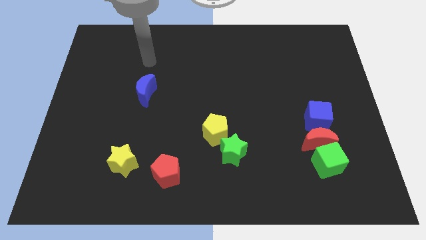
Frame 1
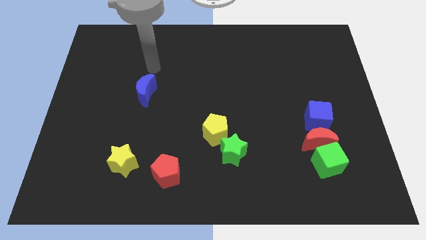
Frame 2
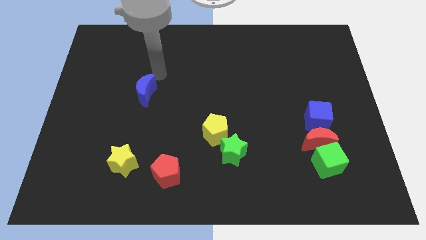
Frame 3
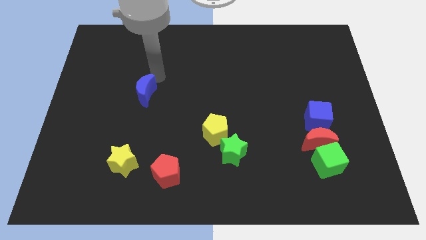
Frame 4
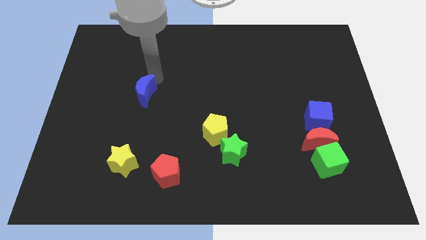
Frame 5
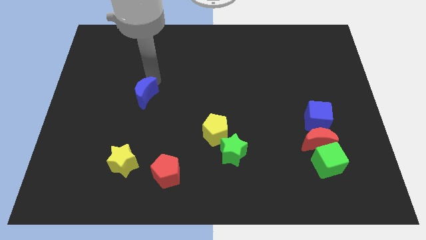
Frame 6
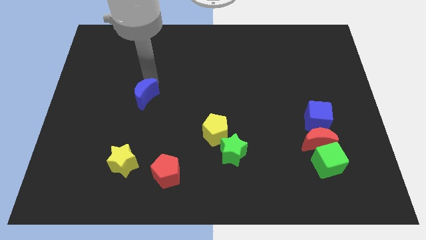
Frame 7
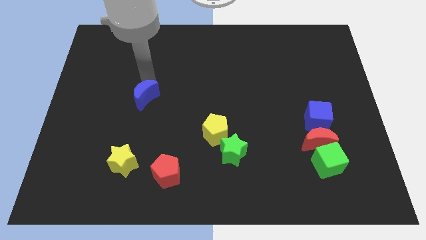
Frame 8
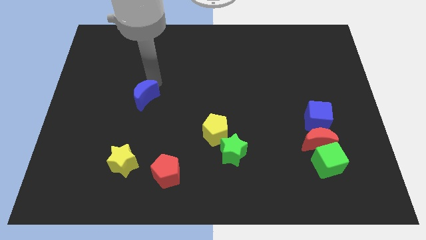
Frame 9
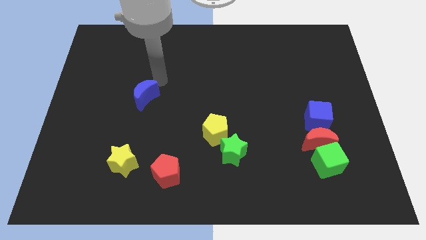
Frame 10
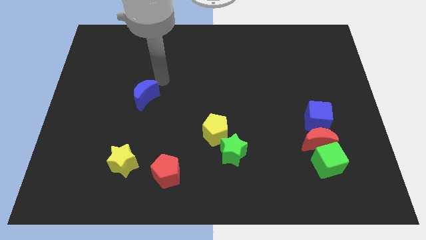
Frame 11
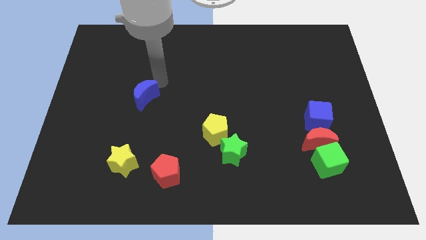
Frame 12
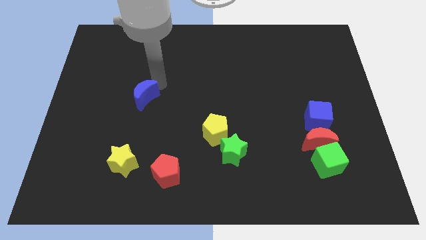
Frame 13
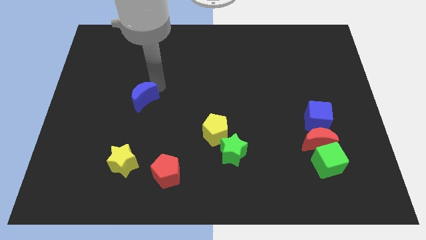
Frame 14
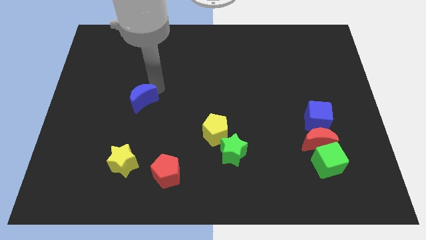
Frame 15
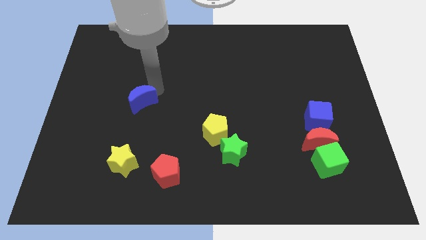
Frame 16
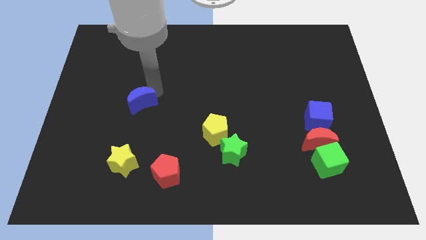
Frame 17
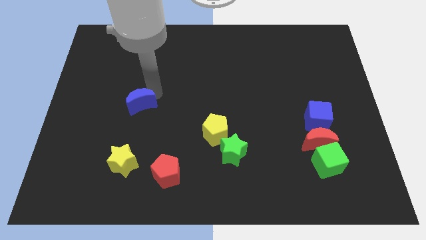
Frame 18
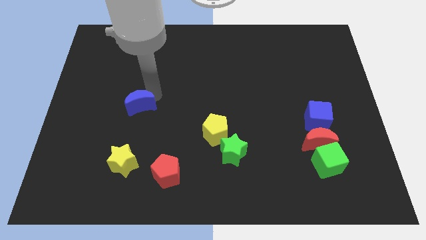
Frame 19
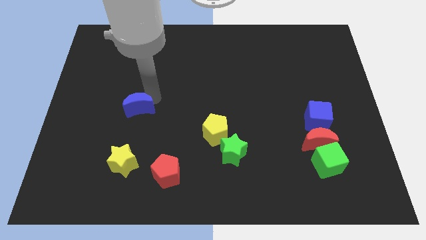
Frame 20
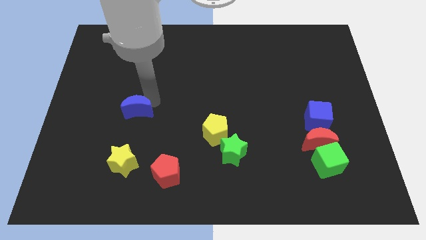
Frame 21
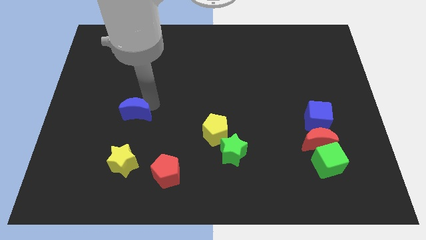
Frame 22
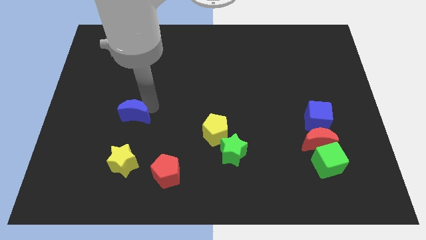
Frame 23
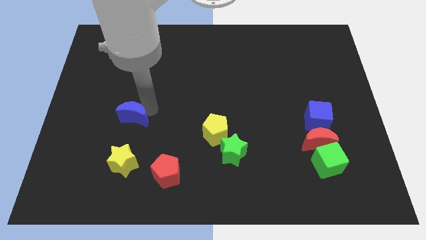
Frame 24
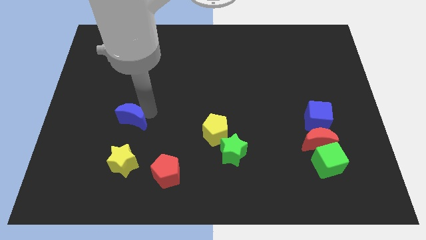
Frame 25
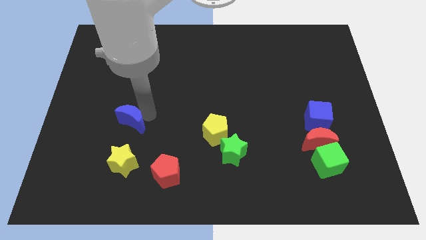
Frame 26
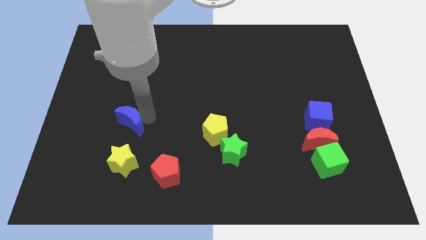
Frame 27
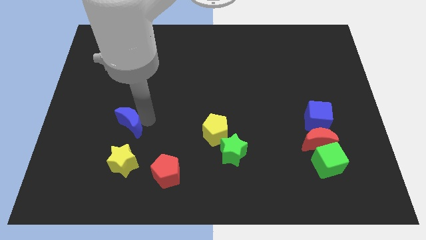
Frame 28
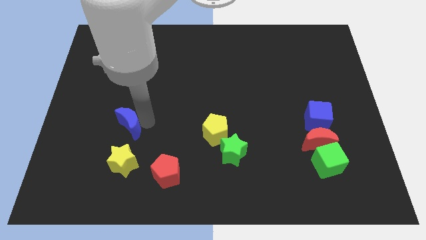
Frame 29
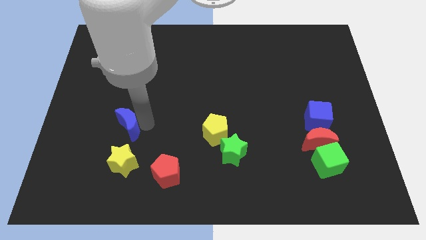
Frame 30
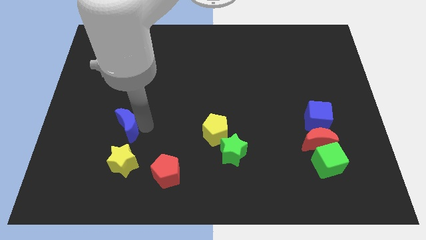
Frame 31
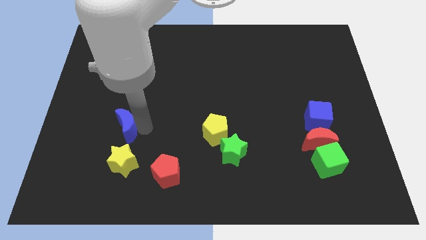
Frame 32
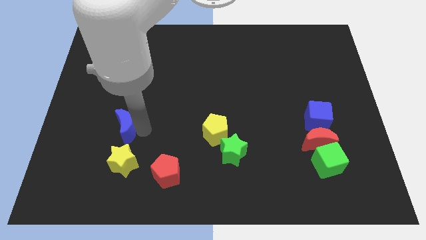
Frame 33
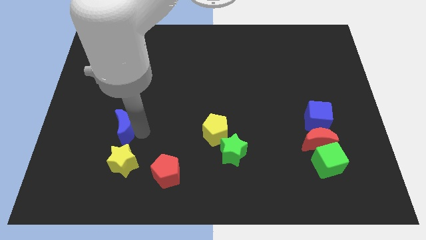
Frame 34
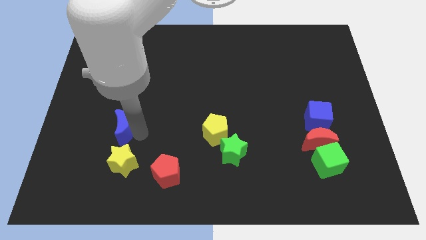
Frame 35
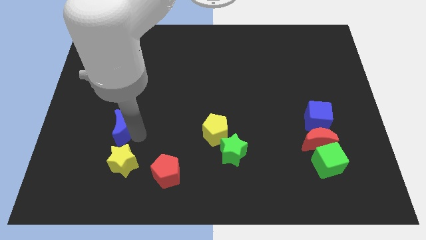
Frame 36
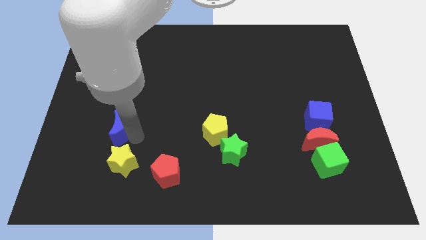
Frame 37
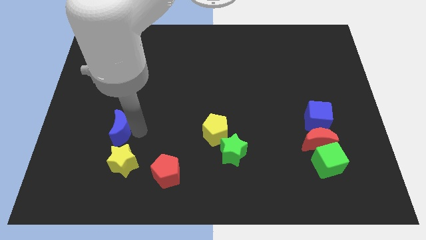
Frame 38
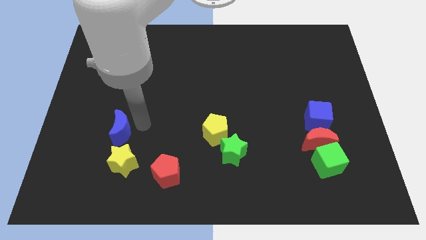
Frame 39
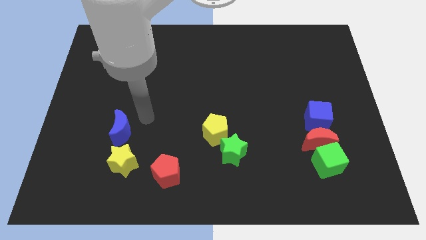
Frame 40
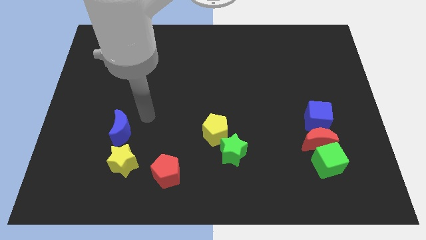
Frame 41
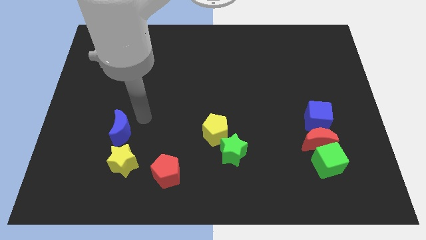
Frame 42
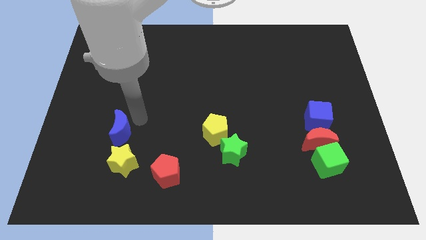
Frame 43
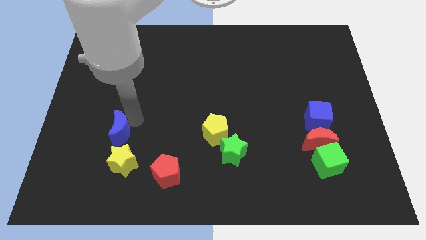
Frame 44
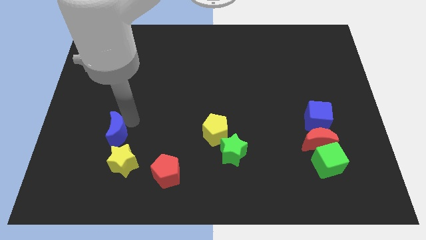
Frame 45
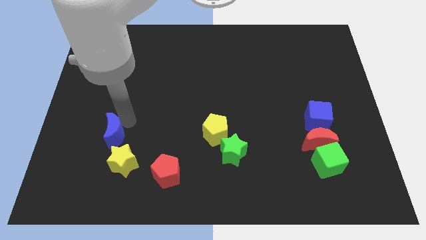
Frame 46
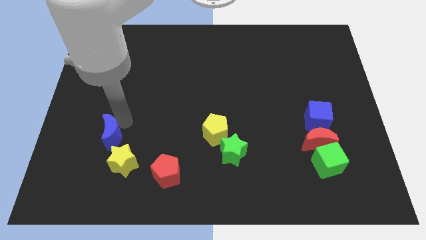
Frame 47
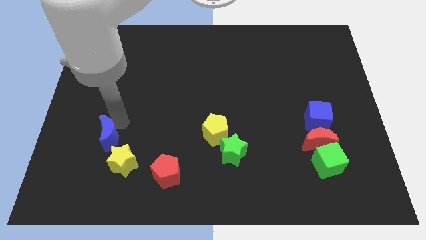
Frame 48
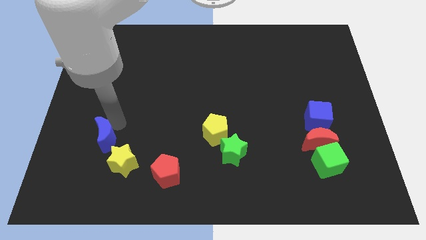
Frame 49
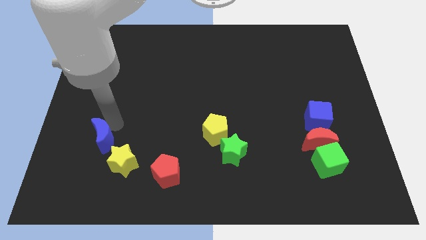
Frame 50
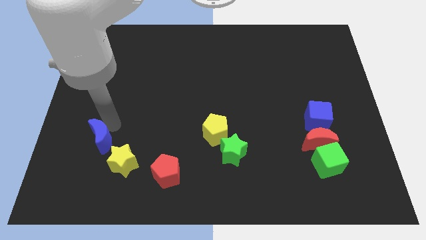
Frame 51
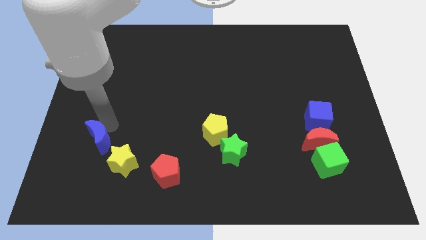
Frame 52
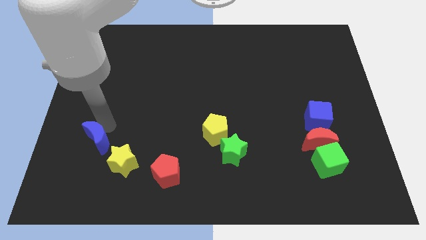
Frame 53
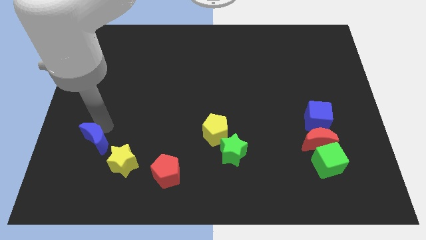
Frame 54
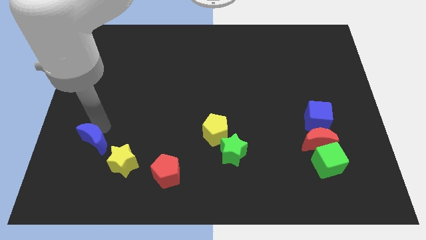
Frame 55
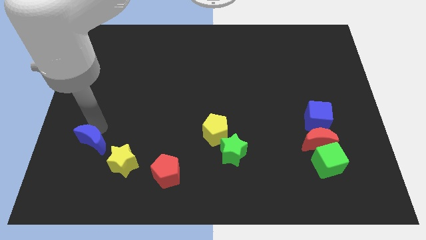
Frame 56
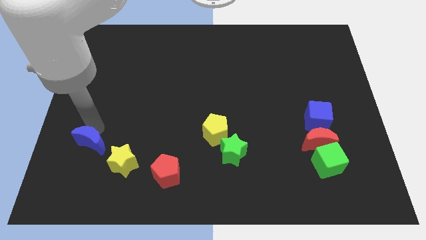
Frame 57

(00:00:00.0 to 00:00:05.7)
slide the blue moon left of the yellow star

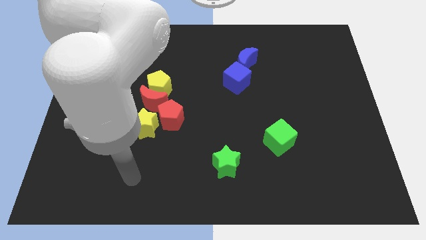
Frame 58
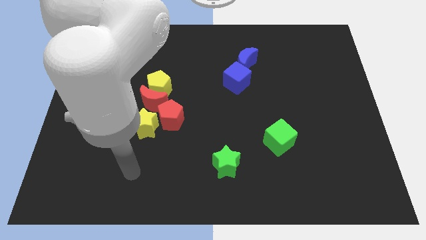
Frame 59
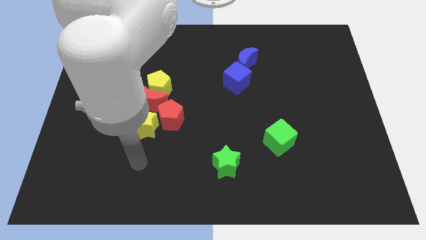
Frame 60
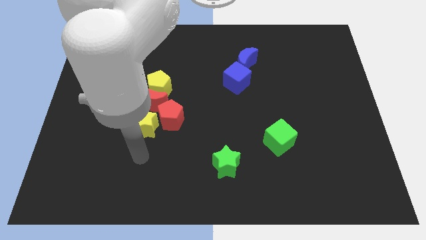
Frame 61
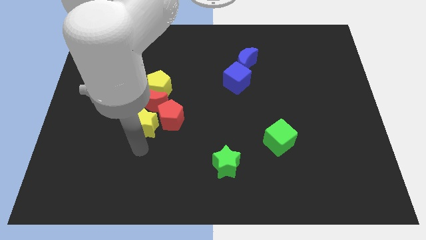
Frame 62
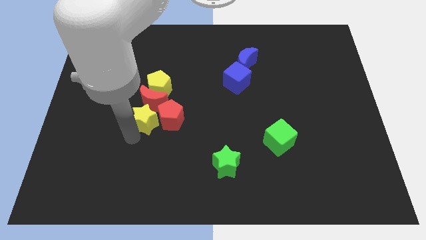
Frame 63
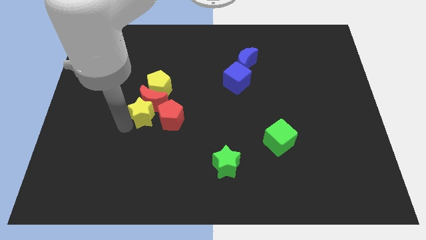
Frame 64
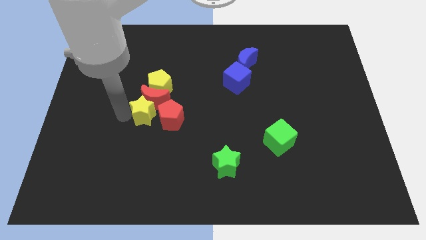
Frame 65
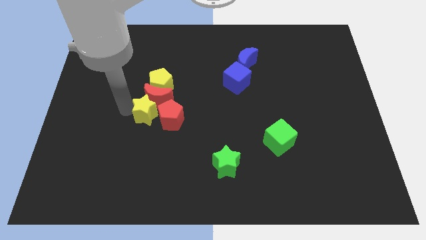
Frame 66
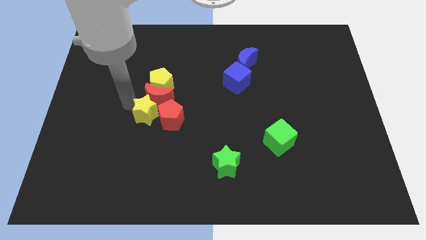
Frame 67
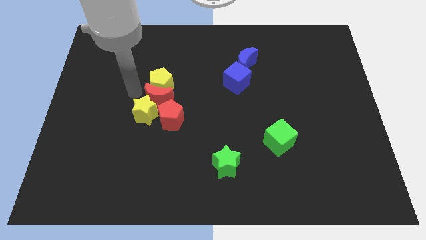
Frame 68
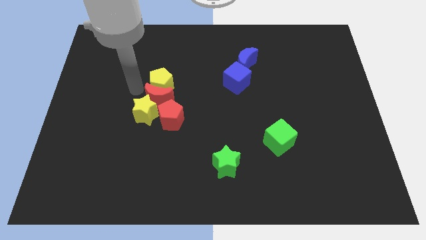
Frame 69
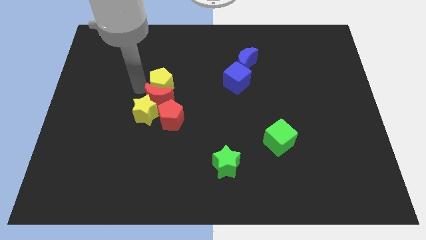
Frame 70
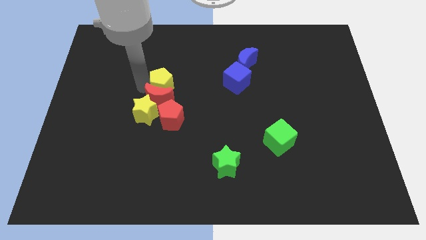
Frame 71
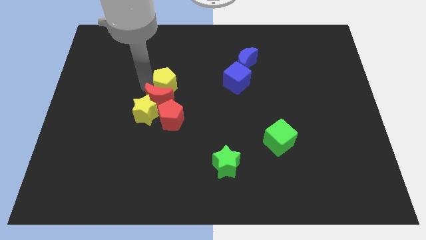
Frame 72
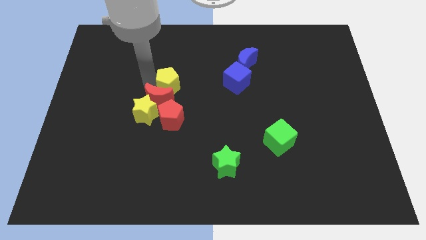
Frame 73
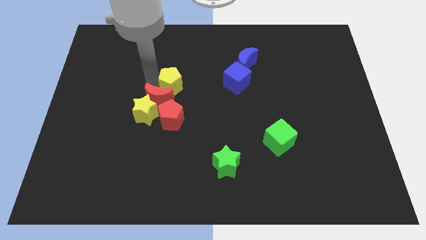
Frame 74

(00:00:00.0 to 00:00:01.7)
move the yellow pentagon to the left of the blue cube

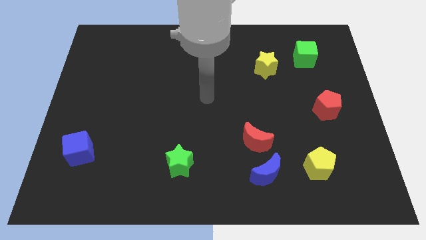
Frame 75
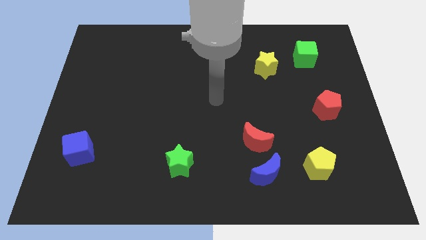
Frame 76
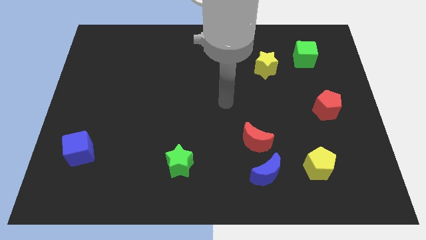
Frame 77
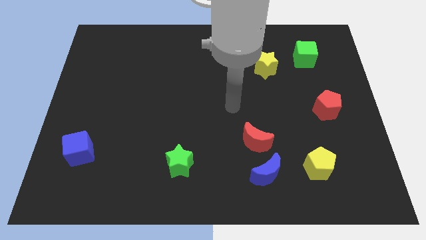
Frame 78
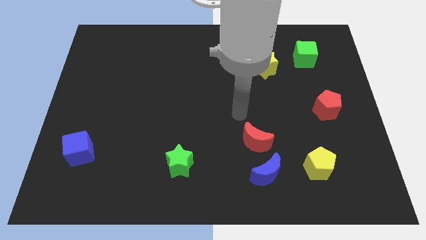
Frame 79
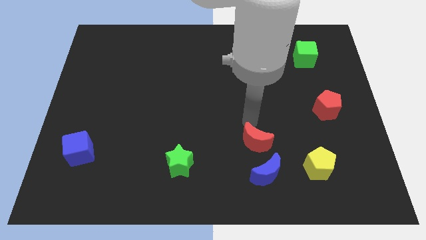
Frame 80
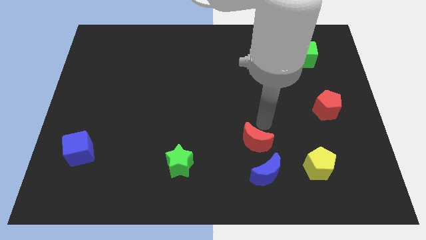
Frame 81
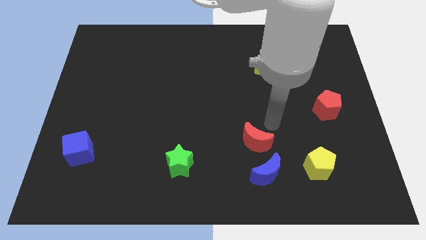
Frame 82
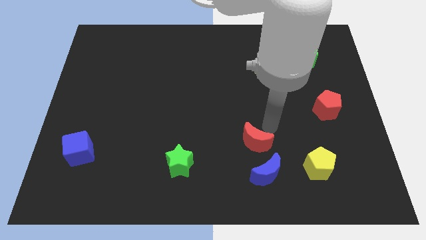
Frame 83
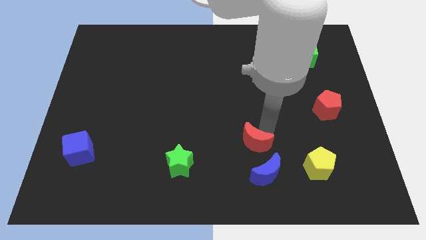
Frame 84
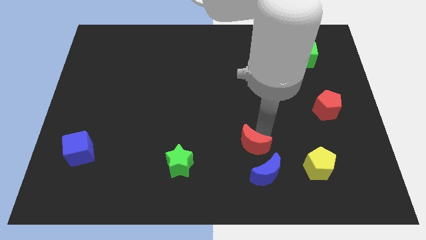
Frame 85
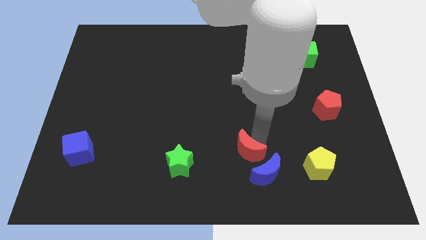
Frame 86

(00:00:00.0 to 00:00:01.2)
put the red moon to the right of the green star
